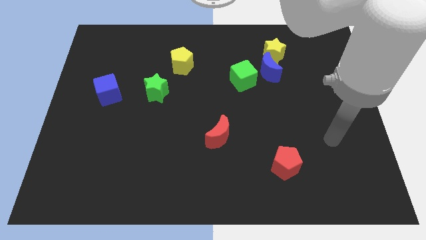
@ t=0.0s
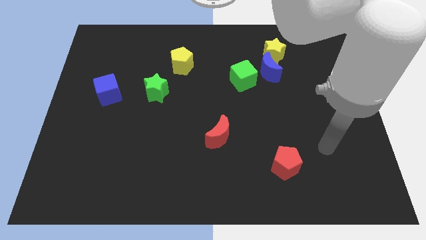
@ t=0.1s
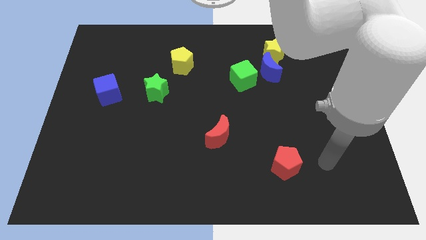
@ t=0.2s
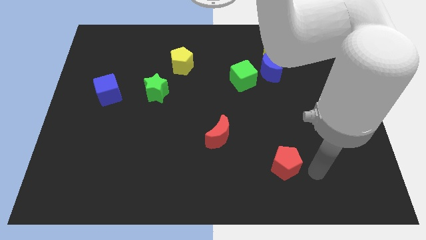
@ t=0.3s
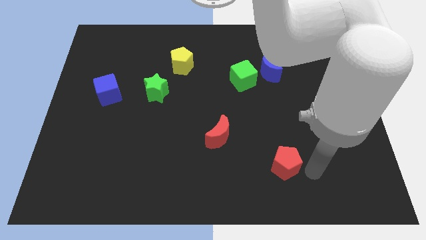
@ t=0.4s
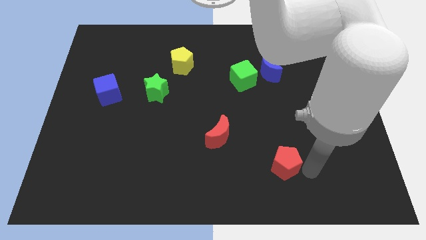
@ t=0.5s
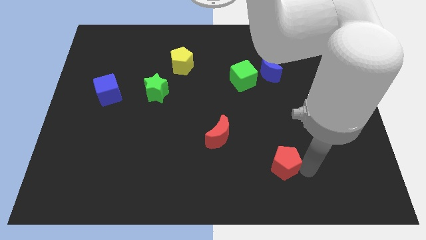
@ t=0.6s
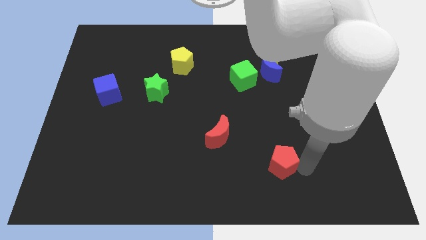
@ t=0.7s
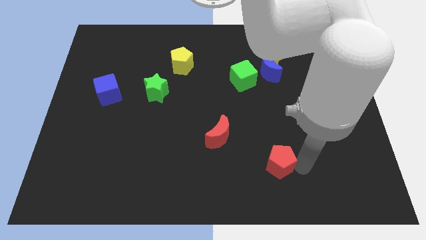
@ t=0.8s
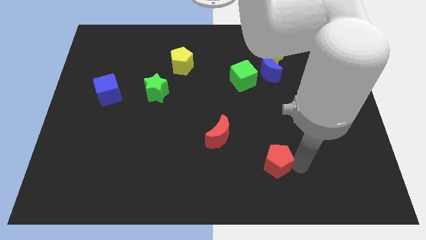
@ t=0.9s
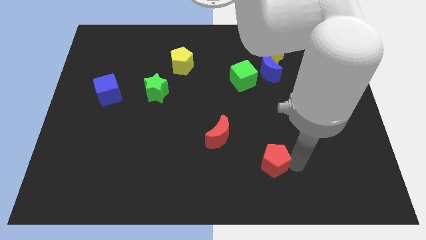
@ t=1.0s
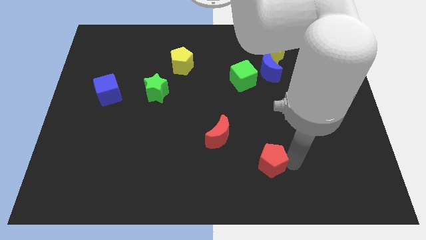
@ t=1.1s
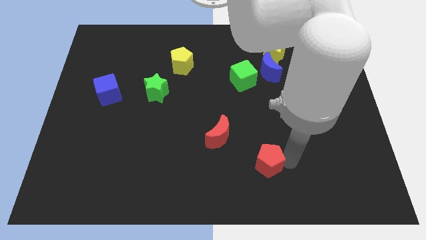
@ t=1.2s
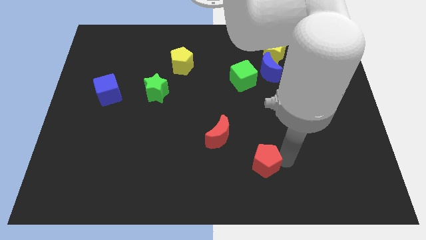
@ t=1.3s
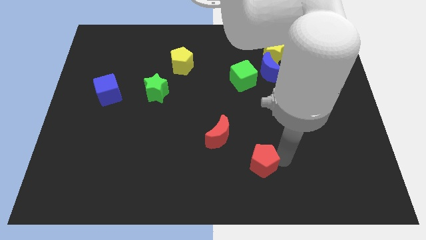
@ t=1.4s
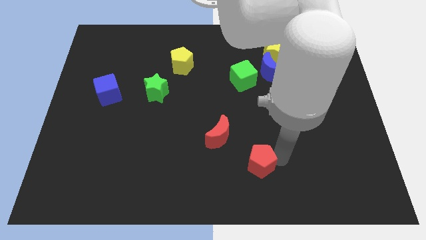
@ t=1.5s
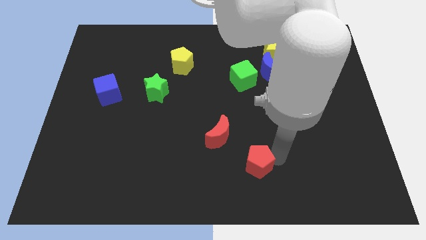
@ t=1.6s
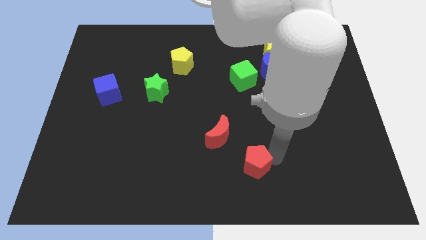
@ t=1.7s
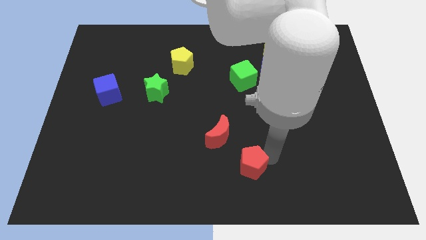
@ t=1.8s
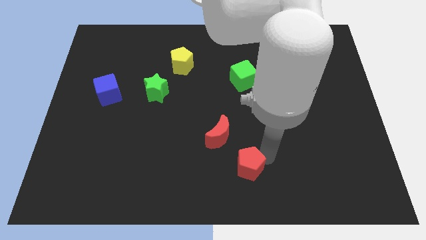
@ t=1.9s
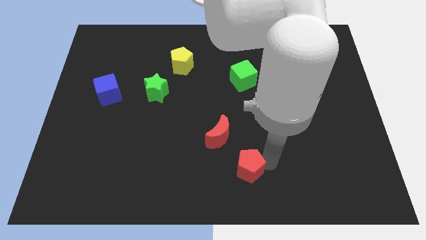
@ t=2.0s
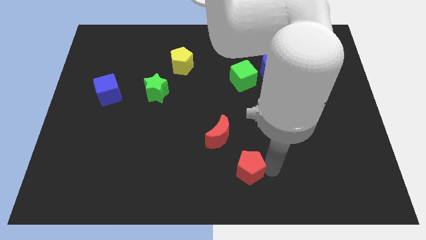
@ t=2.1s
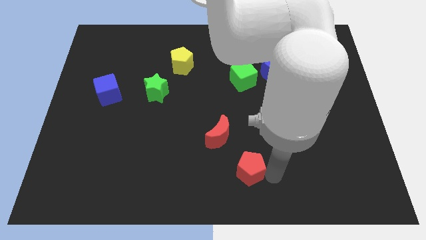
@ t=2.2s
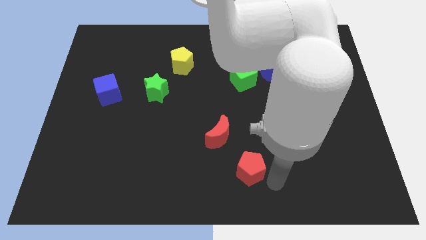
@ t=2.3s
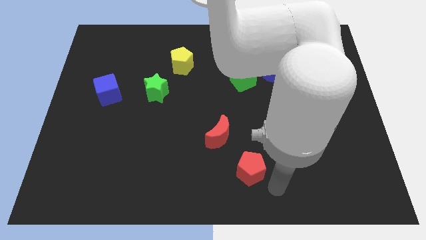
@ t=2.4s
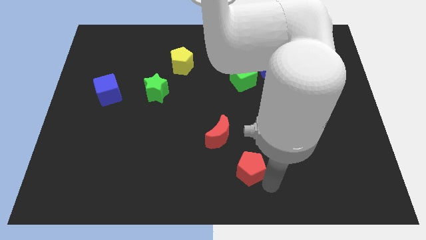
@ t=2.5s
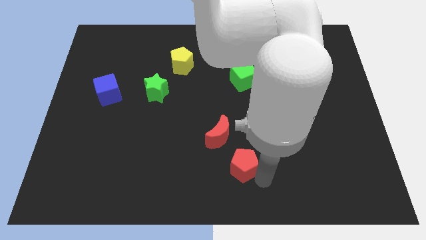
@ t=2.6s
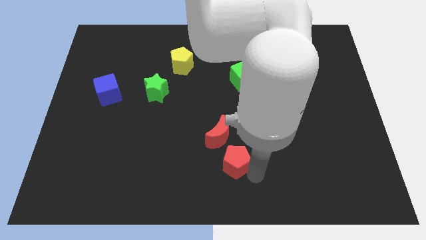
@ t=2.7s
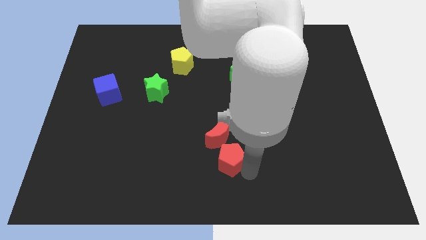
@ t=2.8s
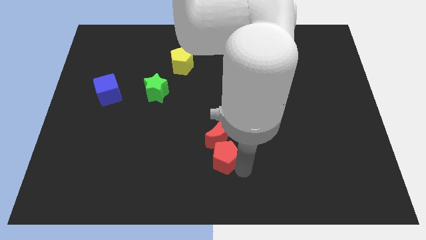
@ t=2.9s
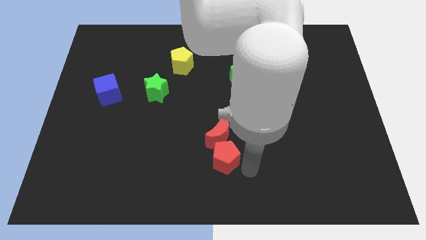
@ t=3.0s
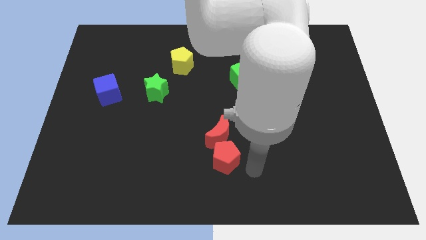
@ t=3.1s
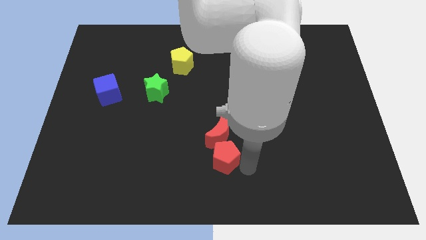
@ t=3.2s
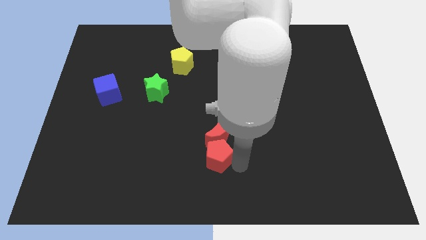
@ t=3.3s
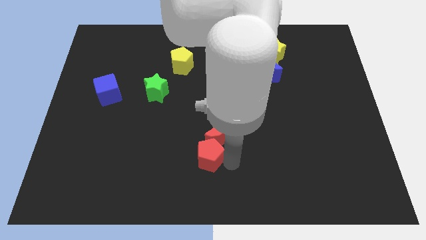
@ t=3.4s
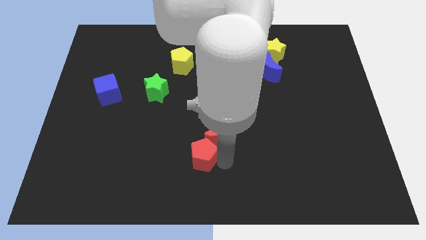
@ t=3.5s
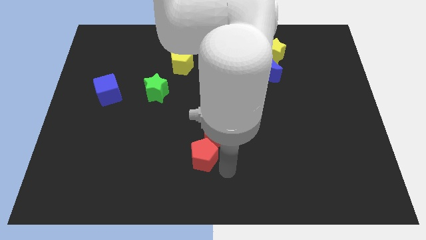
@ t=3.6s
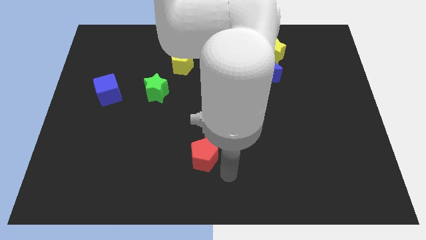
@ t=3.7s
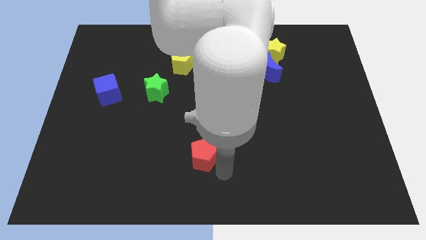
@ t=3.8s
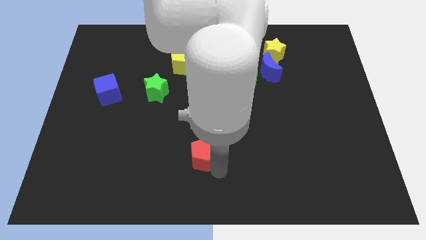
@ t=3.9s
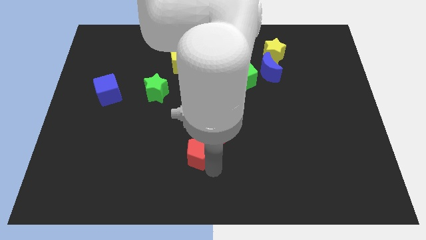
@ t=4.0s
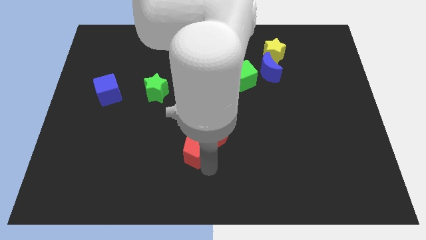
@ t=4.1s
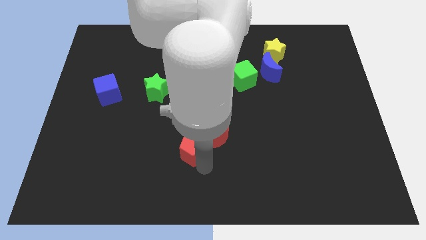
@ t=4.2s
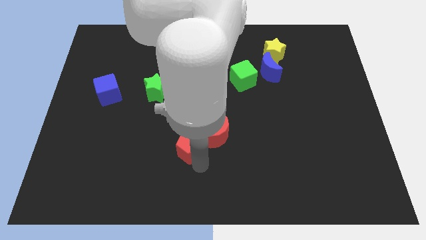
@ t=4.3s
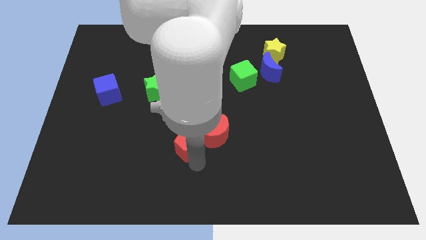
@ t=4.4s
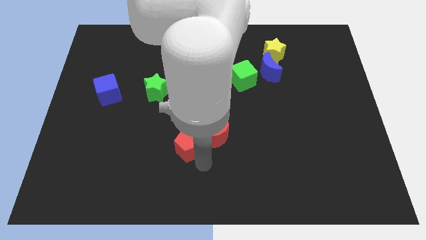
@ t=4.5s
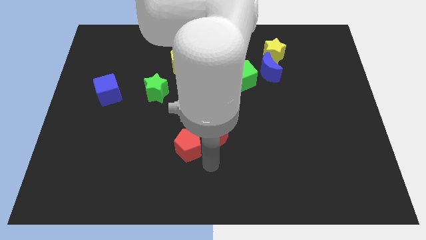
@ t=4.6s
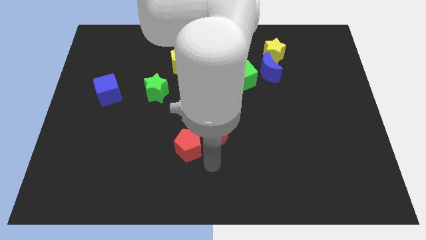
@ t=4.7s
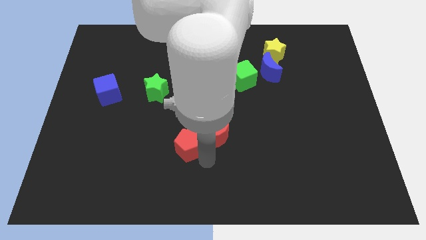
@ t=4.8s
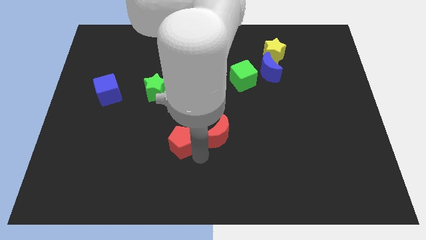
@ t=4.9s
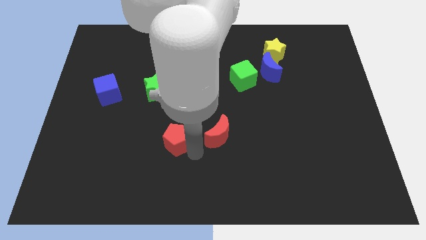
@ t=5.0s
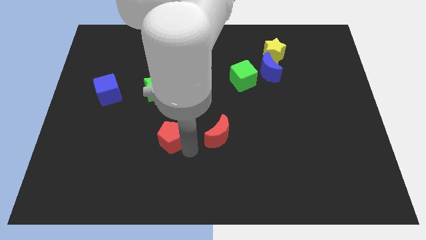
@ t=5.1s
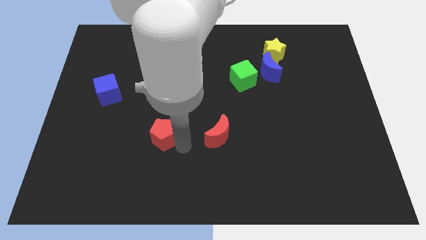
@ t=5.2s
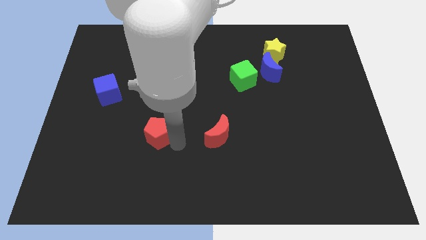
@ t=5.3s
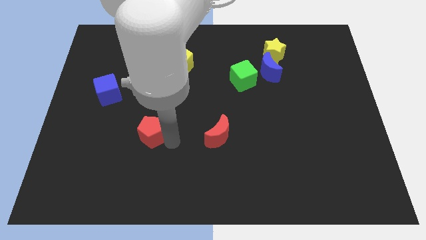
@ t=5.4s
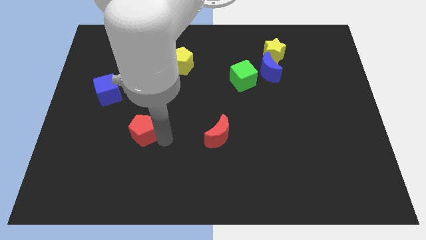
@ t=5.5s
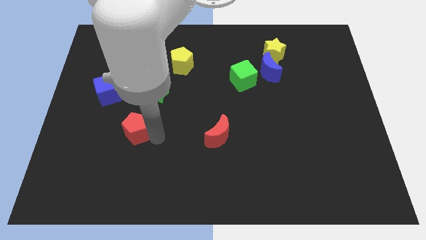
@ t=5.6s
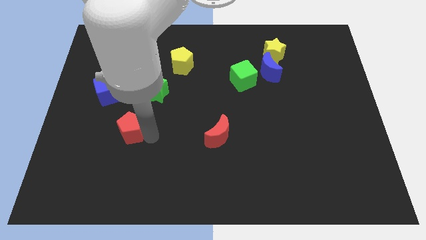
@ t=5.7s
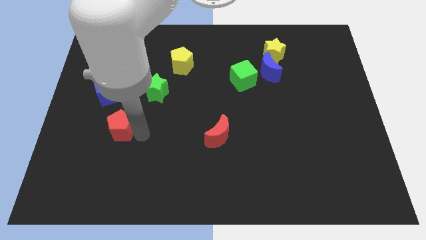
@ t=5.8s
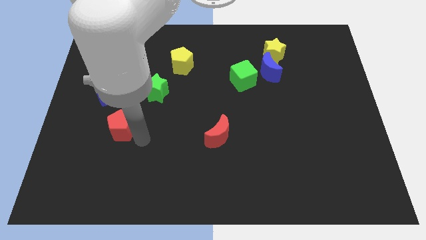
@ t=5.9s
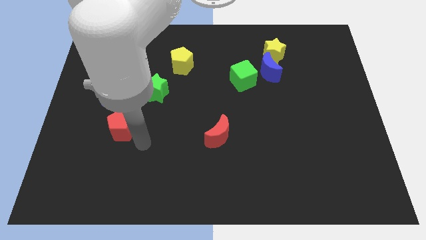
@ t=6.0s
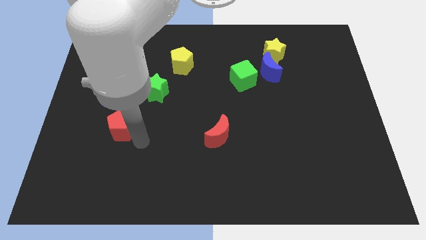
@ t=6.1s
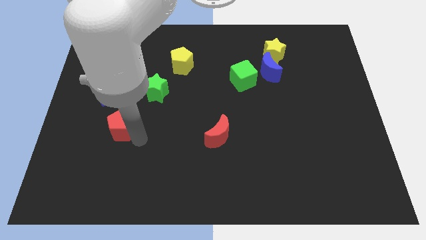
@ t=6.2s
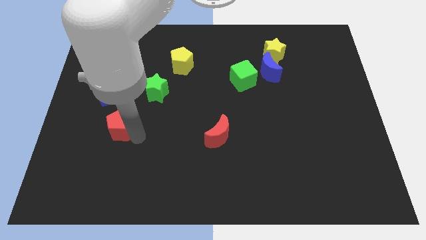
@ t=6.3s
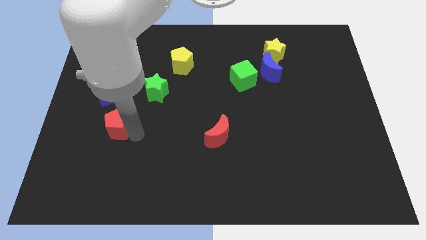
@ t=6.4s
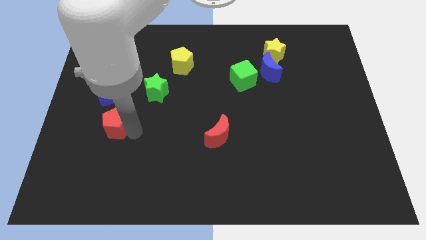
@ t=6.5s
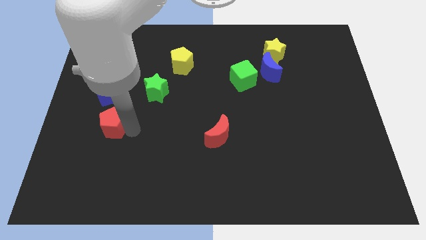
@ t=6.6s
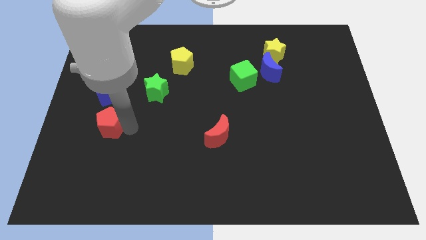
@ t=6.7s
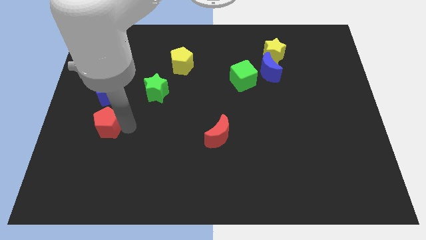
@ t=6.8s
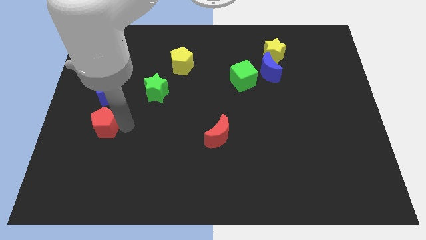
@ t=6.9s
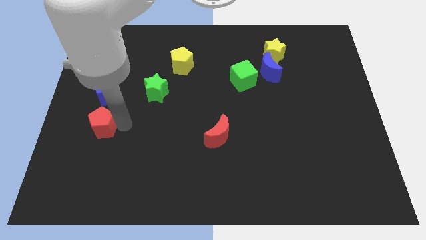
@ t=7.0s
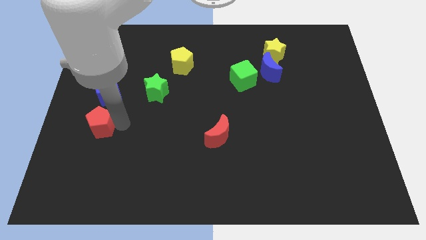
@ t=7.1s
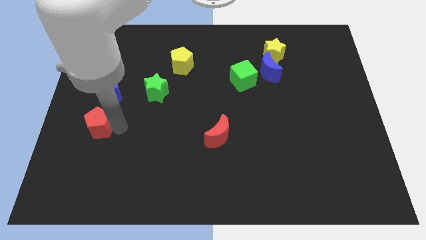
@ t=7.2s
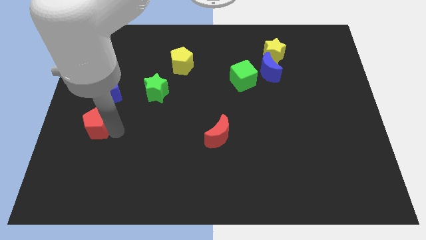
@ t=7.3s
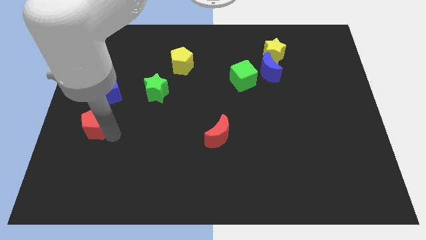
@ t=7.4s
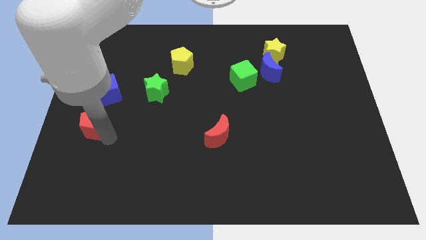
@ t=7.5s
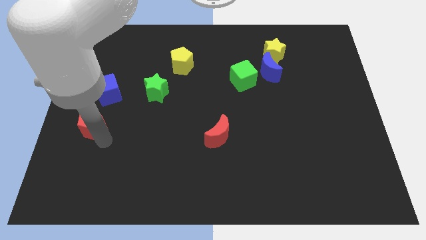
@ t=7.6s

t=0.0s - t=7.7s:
put the red pentagon to the left side of the board
